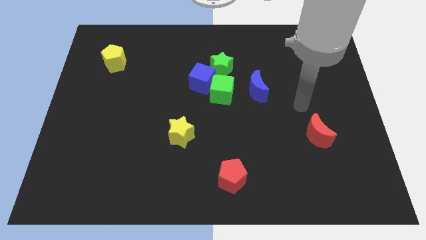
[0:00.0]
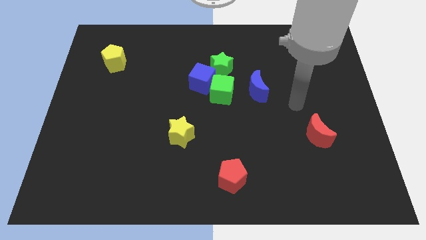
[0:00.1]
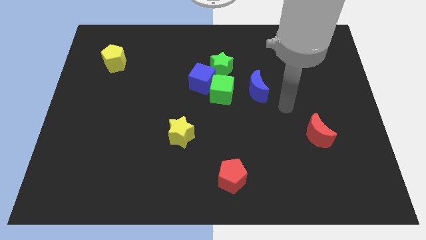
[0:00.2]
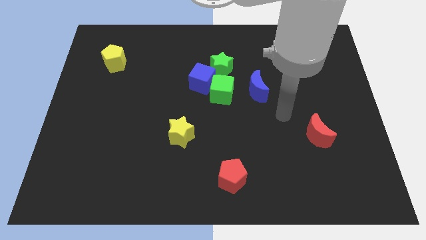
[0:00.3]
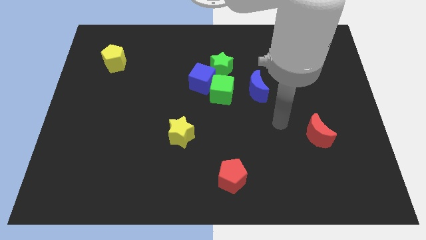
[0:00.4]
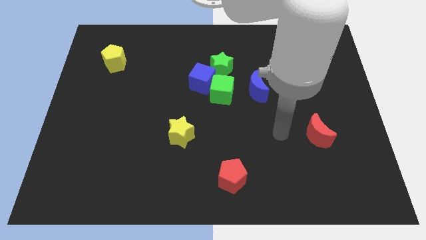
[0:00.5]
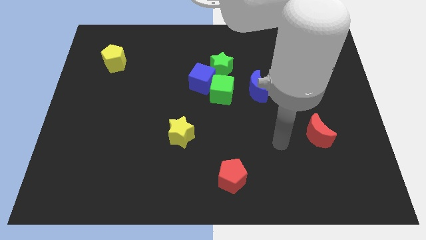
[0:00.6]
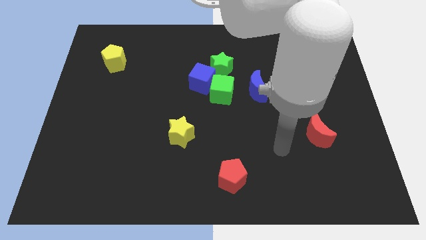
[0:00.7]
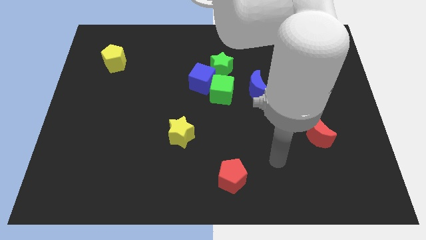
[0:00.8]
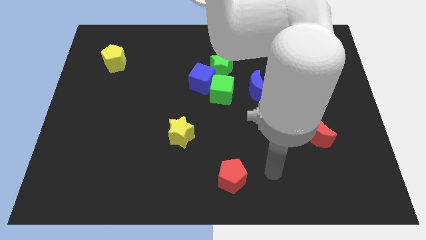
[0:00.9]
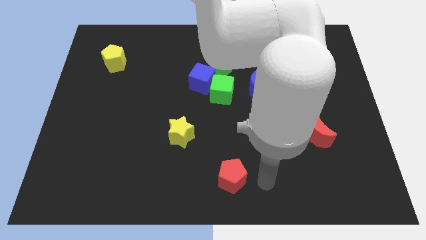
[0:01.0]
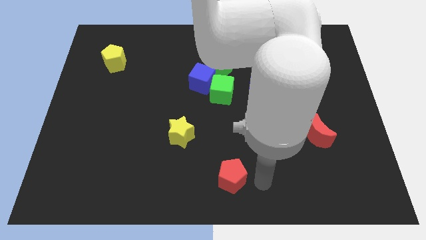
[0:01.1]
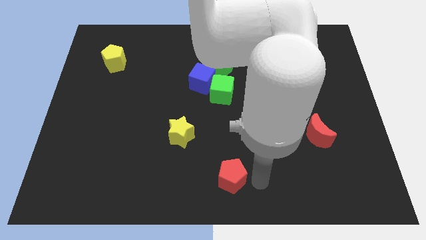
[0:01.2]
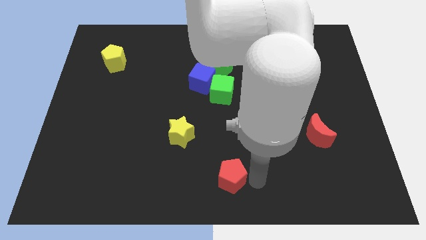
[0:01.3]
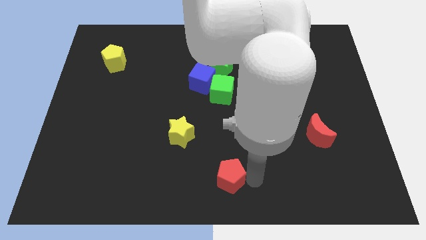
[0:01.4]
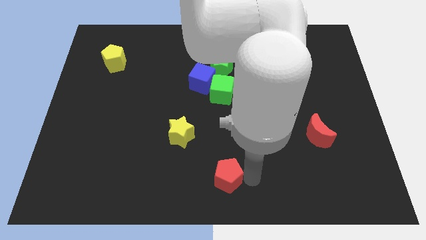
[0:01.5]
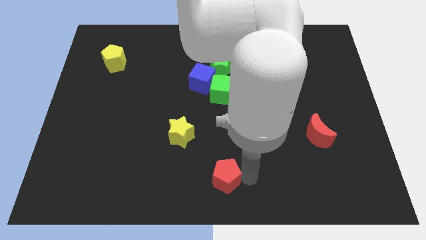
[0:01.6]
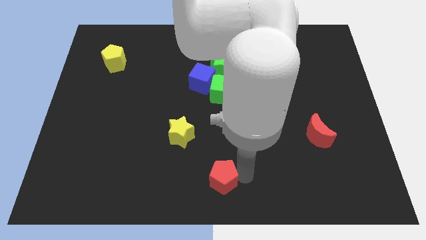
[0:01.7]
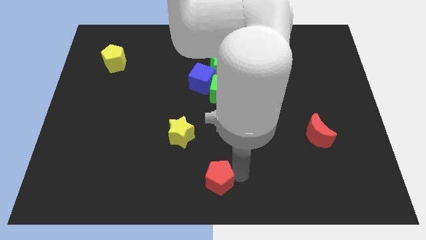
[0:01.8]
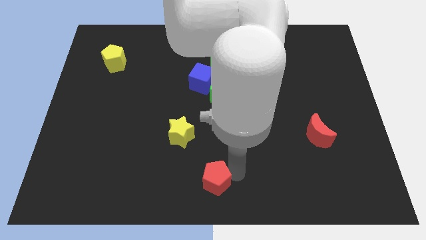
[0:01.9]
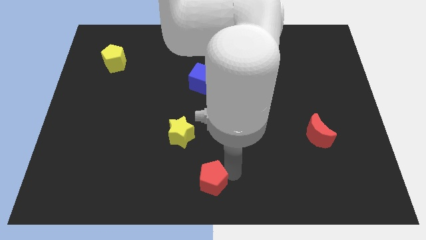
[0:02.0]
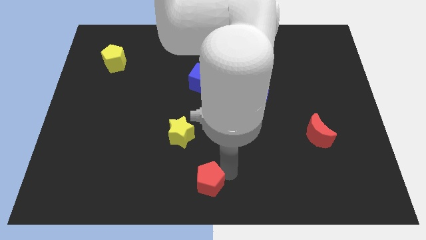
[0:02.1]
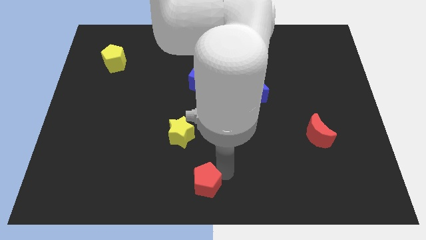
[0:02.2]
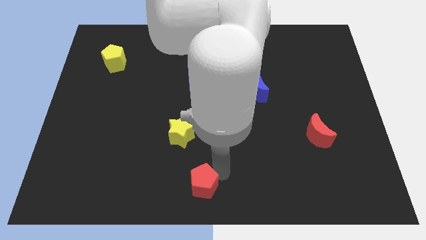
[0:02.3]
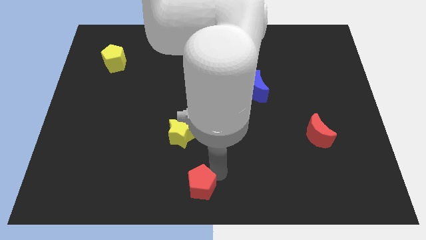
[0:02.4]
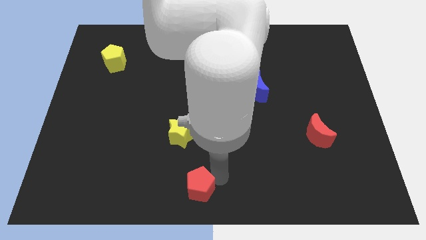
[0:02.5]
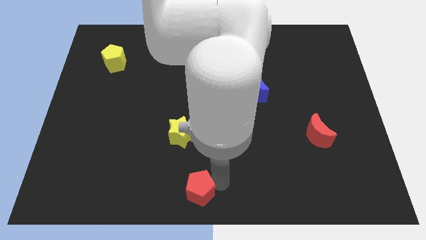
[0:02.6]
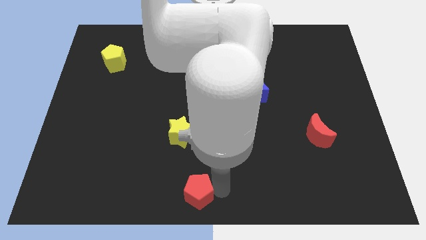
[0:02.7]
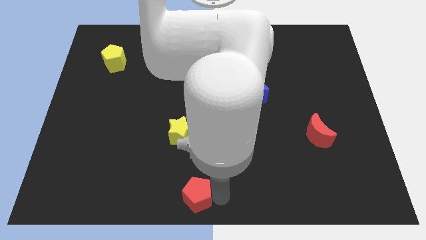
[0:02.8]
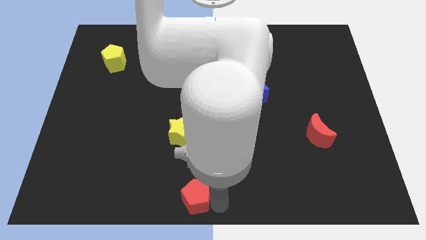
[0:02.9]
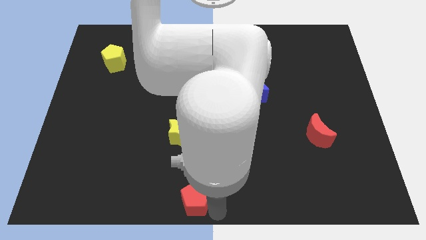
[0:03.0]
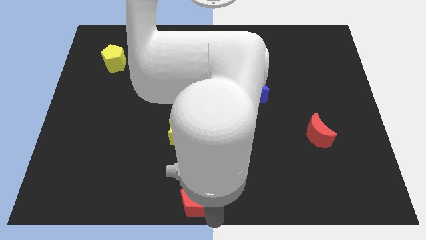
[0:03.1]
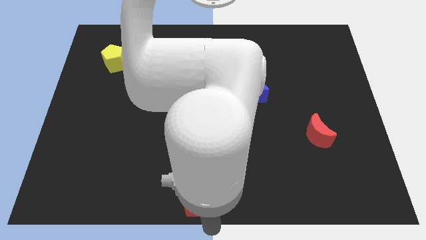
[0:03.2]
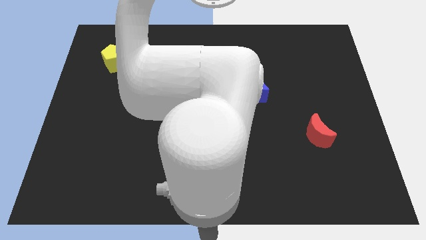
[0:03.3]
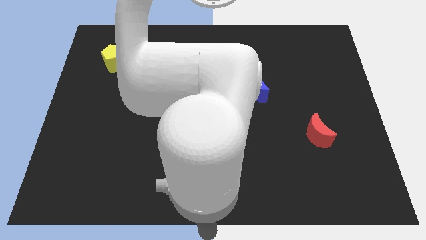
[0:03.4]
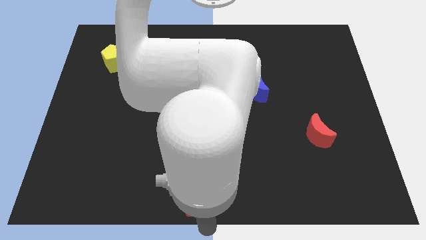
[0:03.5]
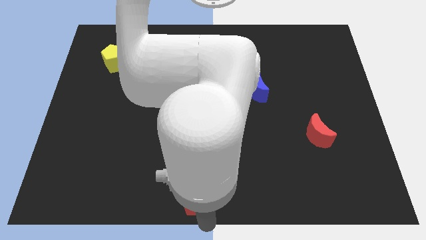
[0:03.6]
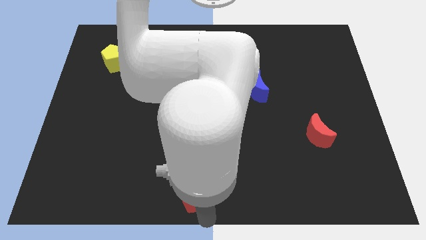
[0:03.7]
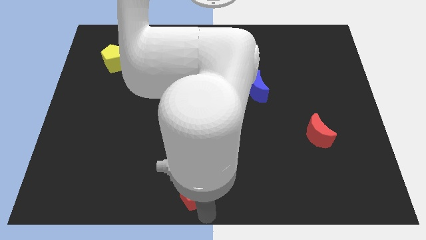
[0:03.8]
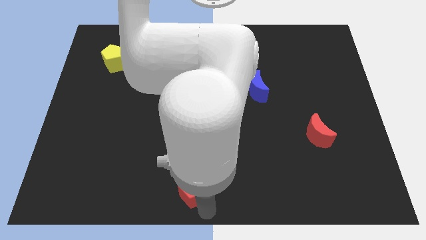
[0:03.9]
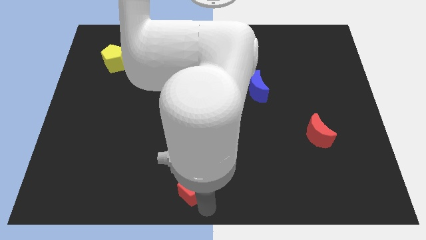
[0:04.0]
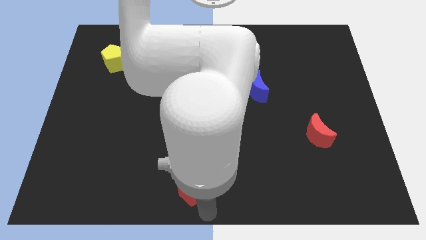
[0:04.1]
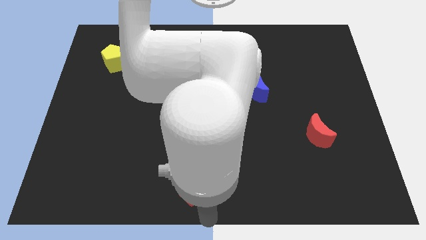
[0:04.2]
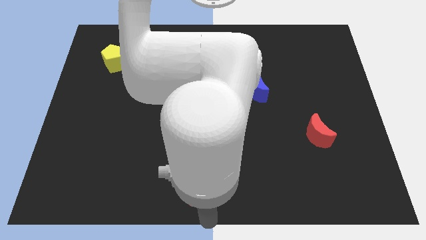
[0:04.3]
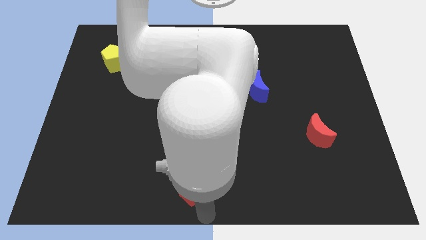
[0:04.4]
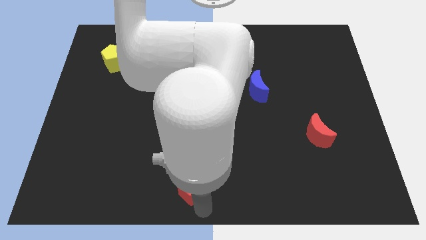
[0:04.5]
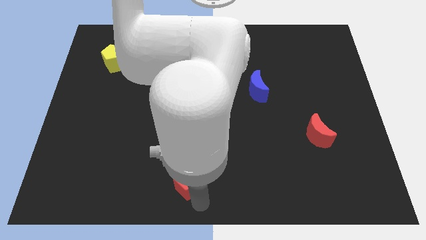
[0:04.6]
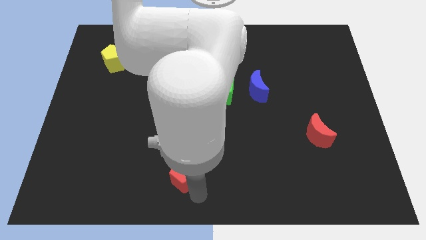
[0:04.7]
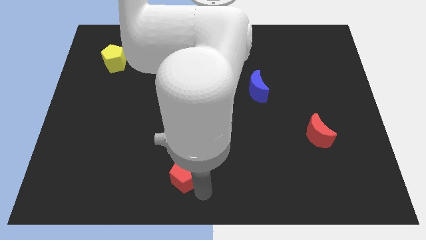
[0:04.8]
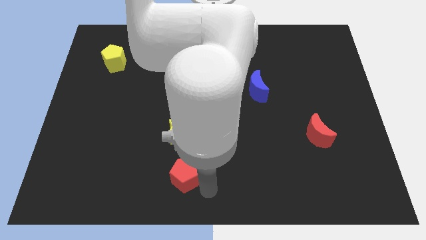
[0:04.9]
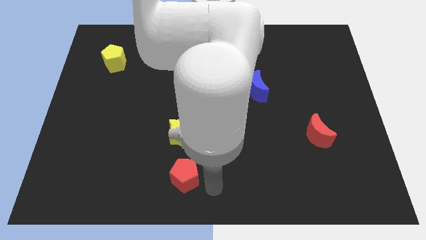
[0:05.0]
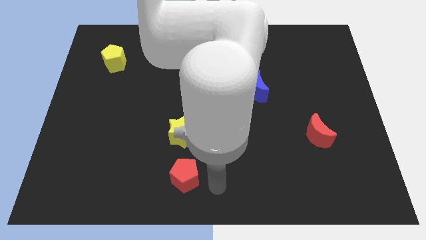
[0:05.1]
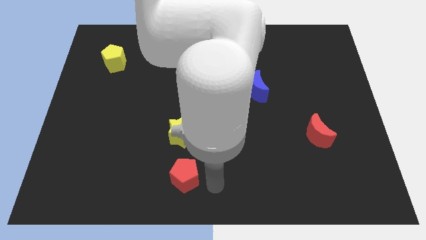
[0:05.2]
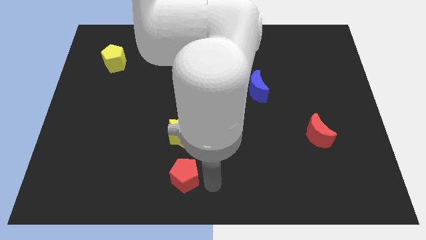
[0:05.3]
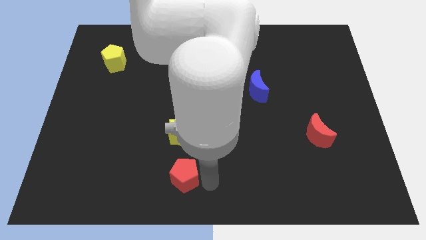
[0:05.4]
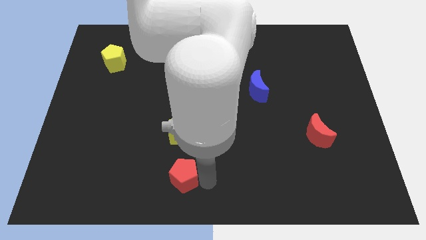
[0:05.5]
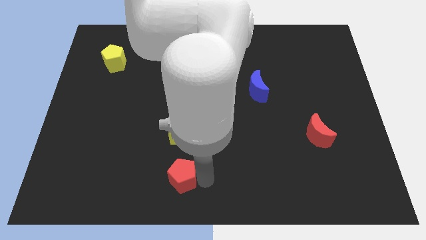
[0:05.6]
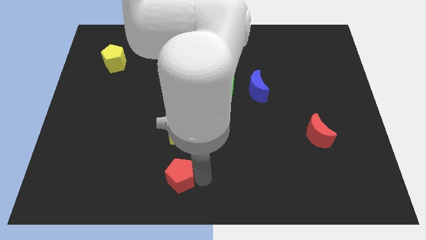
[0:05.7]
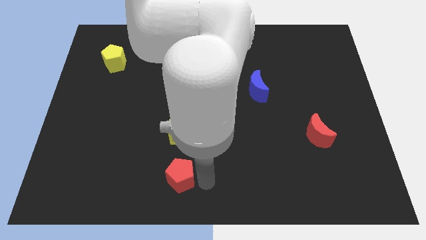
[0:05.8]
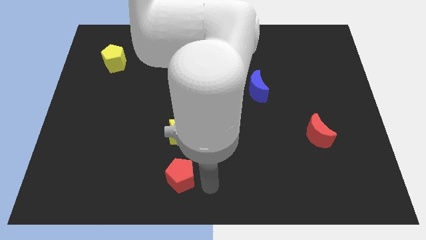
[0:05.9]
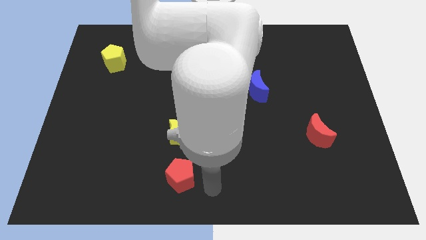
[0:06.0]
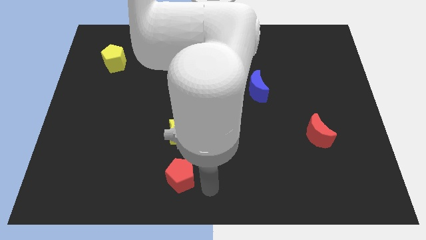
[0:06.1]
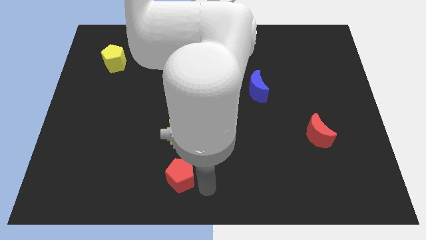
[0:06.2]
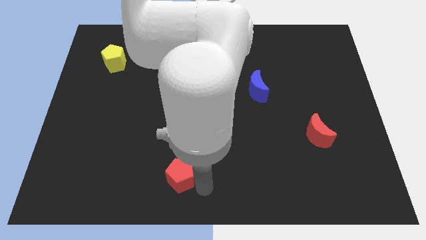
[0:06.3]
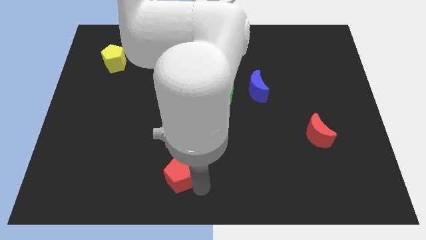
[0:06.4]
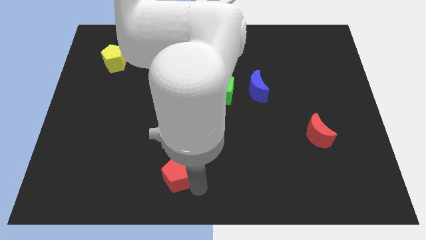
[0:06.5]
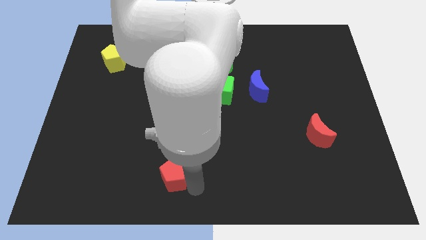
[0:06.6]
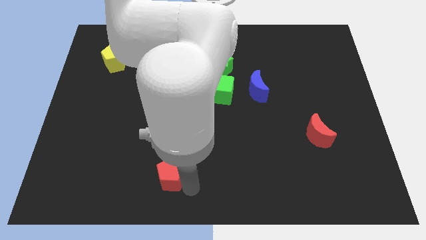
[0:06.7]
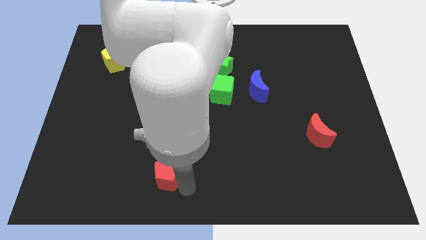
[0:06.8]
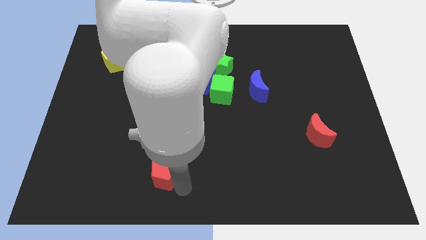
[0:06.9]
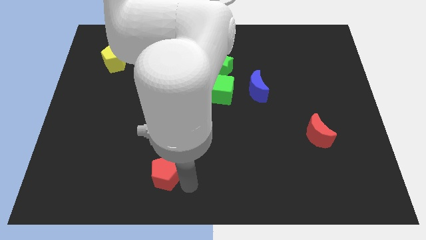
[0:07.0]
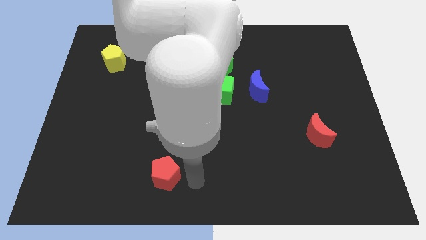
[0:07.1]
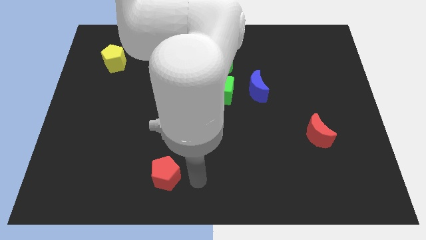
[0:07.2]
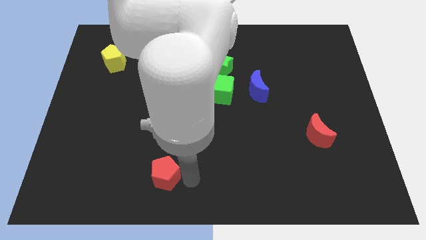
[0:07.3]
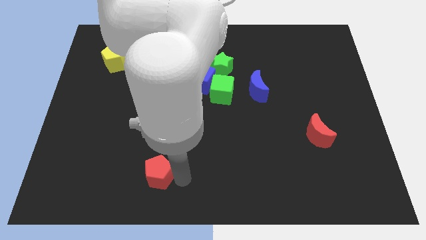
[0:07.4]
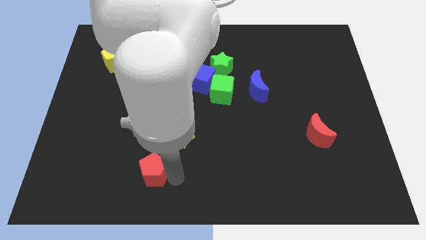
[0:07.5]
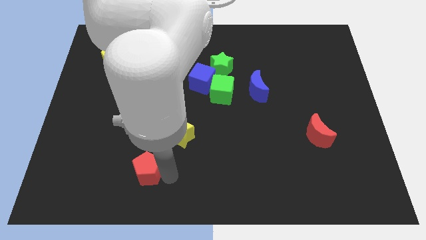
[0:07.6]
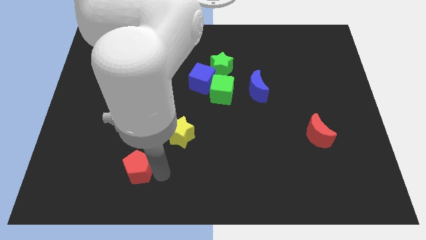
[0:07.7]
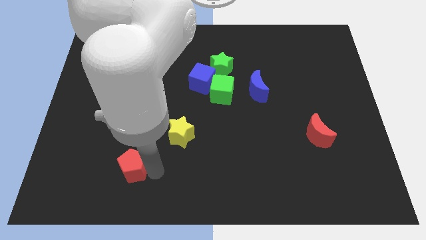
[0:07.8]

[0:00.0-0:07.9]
move the red pentagon left
